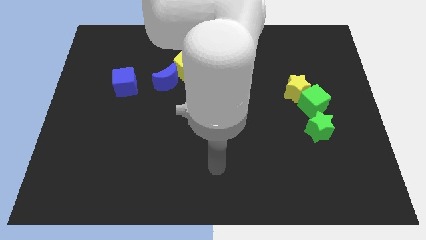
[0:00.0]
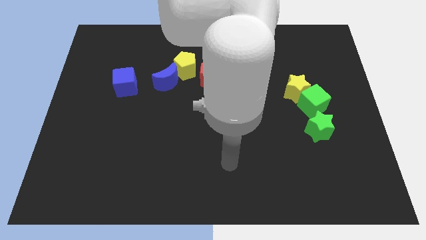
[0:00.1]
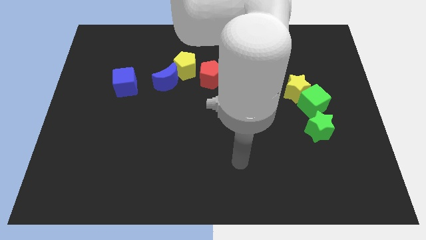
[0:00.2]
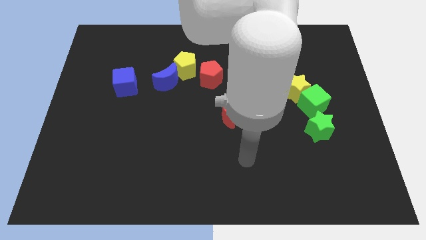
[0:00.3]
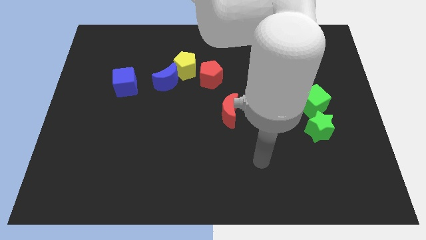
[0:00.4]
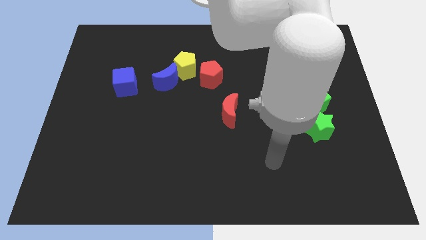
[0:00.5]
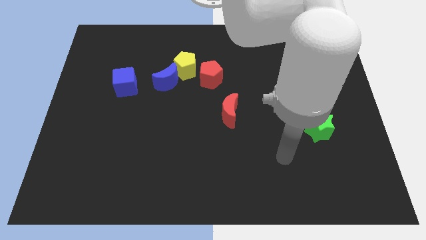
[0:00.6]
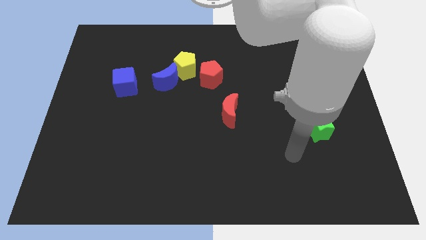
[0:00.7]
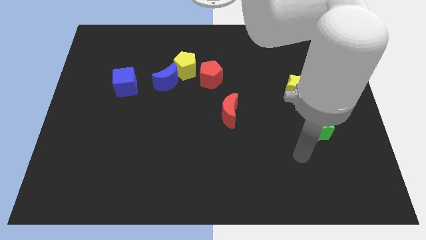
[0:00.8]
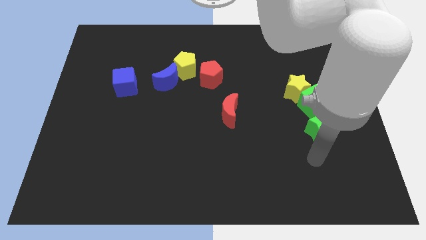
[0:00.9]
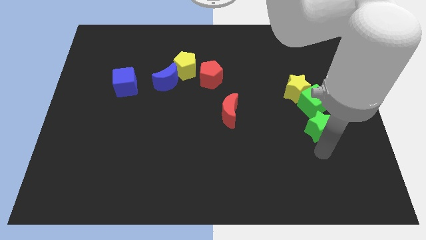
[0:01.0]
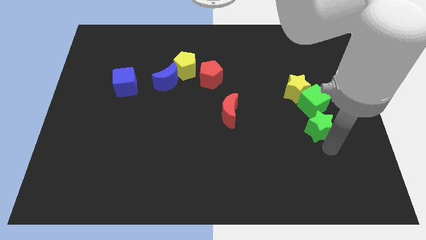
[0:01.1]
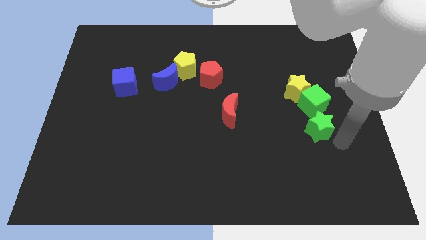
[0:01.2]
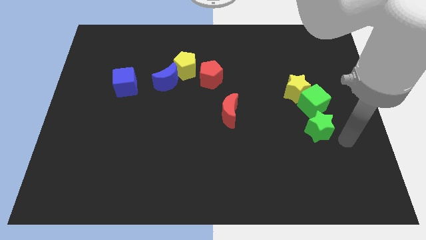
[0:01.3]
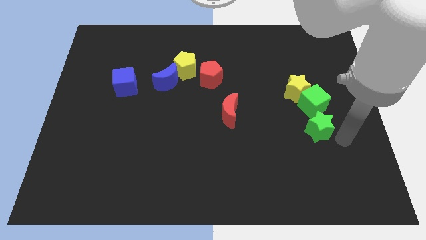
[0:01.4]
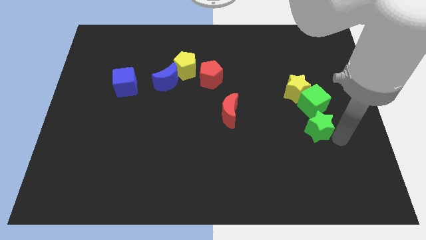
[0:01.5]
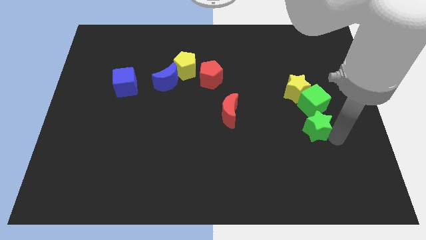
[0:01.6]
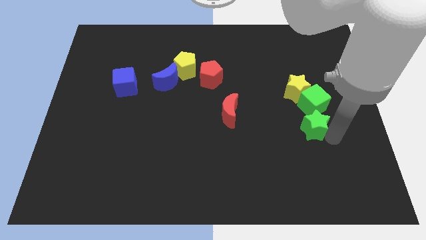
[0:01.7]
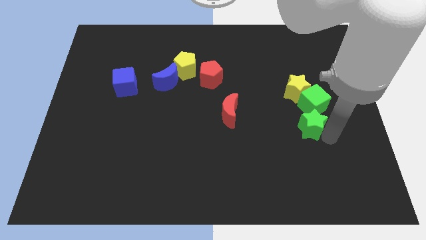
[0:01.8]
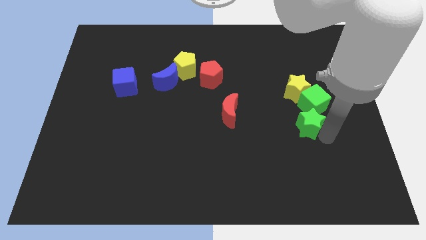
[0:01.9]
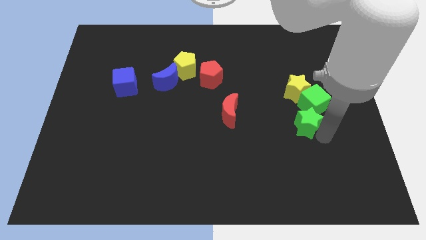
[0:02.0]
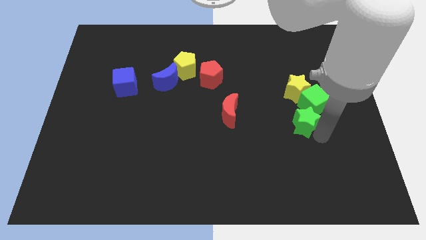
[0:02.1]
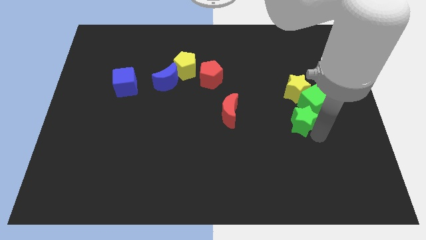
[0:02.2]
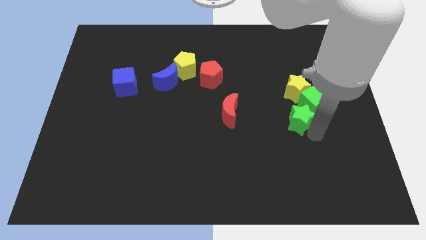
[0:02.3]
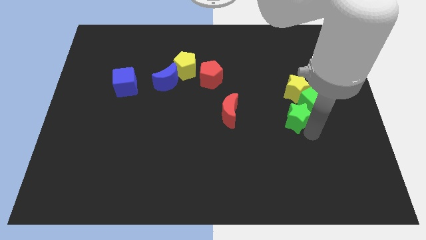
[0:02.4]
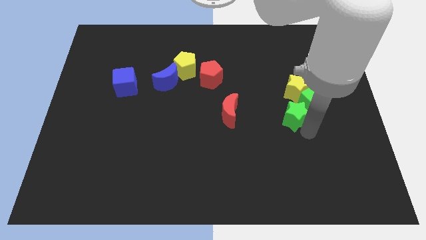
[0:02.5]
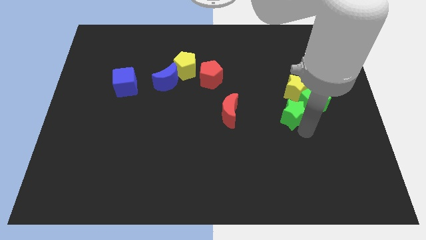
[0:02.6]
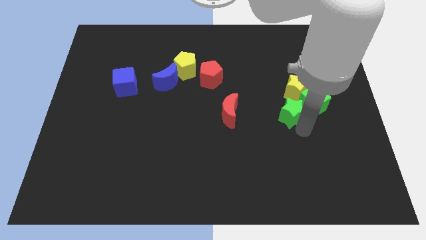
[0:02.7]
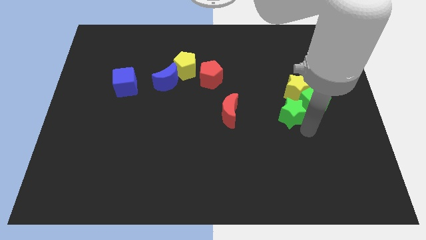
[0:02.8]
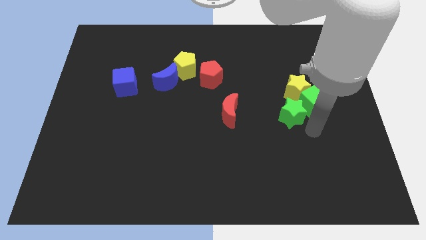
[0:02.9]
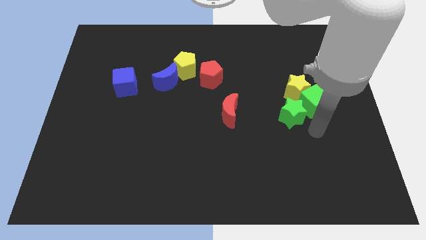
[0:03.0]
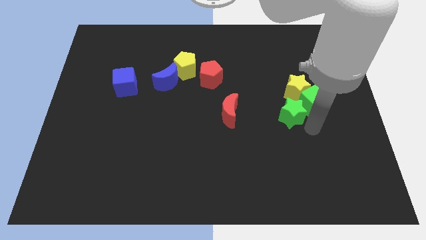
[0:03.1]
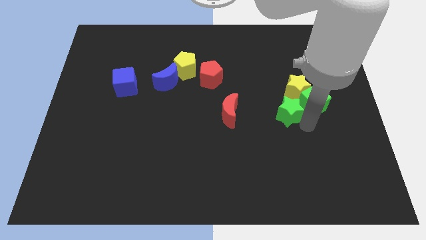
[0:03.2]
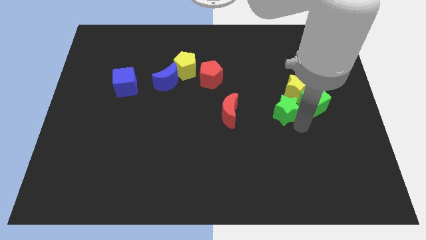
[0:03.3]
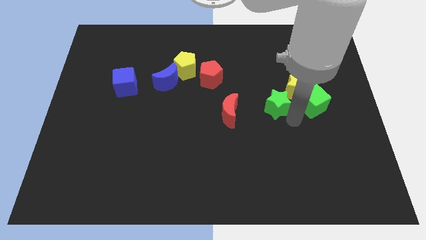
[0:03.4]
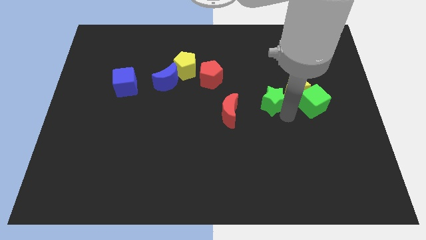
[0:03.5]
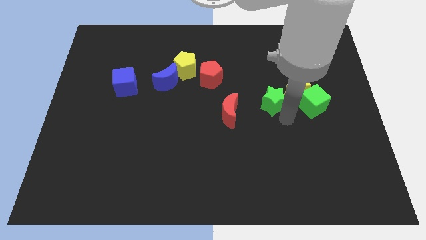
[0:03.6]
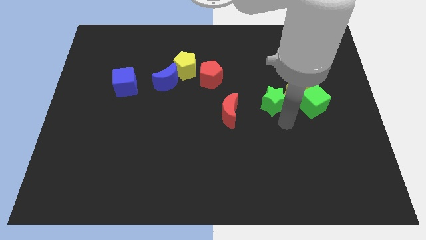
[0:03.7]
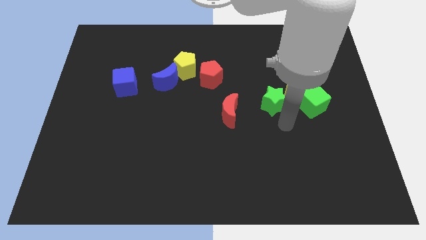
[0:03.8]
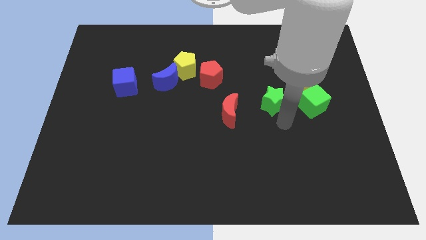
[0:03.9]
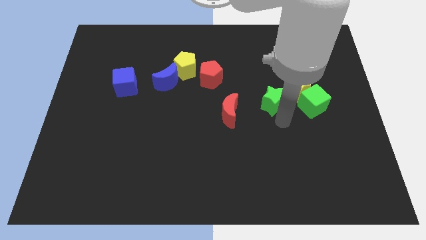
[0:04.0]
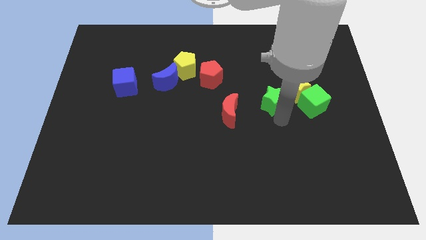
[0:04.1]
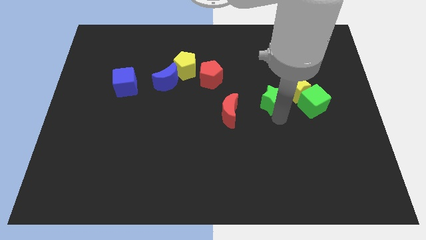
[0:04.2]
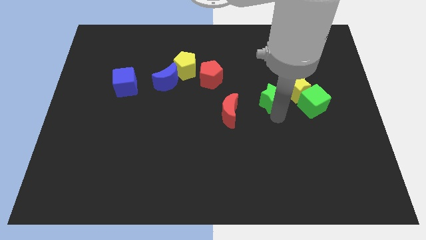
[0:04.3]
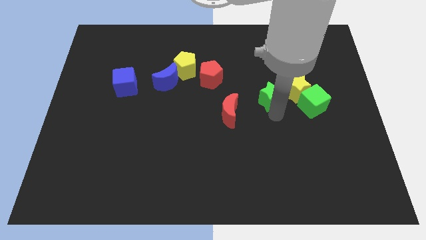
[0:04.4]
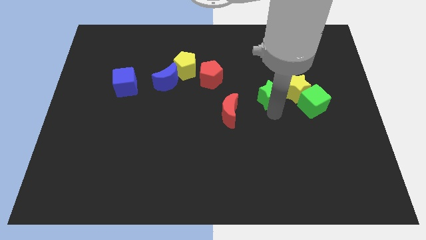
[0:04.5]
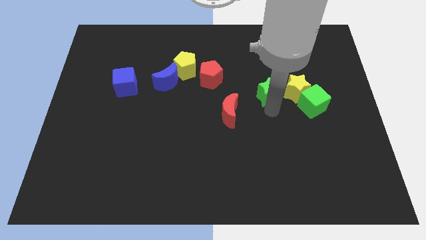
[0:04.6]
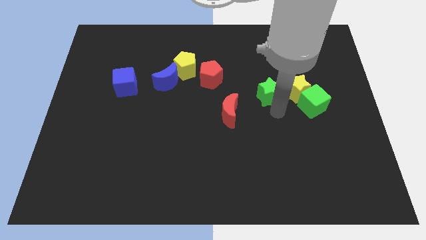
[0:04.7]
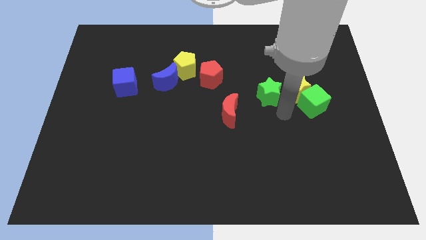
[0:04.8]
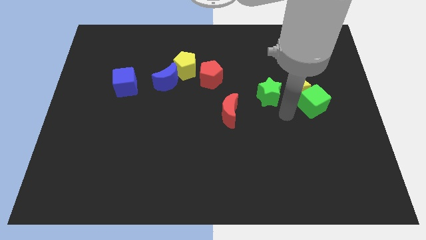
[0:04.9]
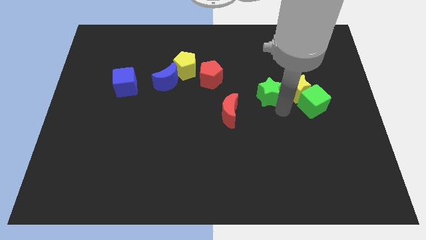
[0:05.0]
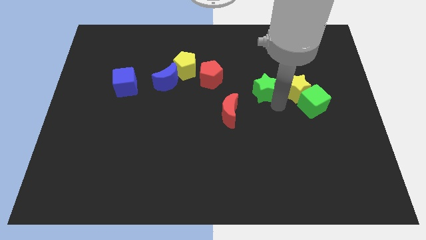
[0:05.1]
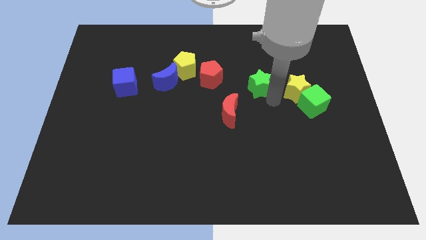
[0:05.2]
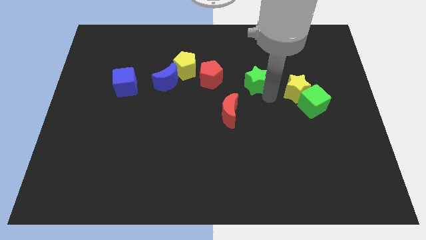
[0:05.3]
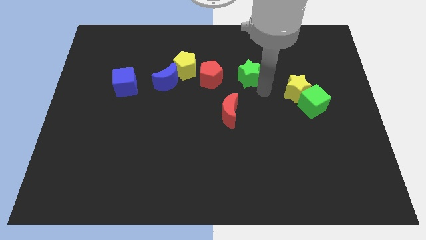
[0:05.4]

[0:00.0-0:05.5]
move the green star diagonally upwards and left

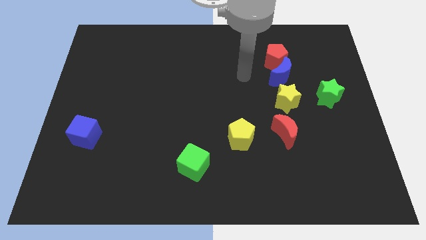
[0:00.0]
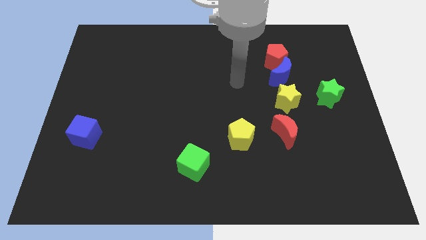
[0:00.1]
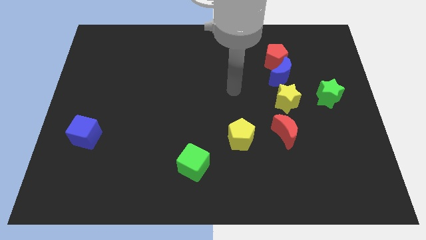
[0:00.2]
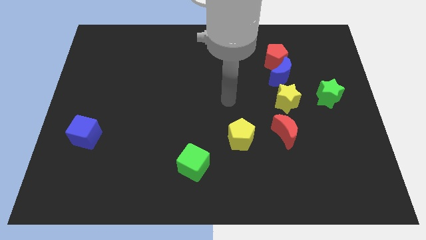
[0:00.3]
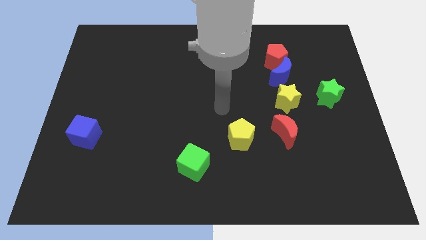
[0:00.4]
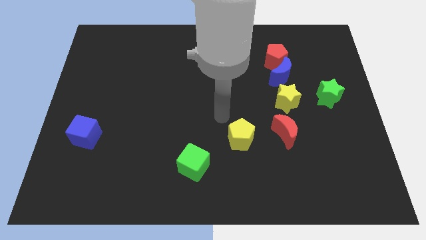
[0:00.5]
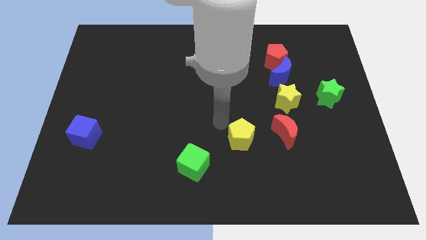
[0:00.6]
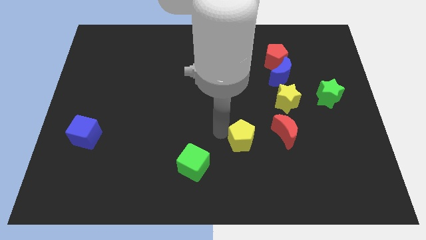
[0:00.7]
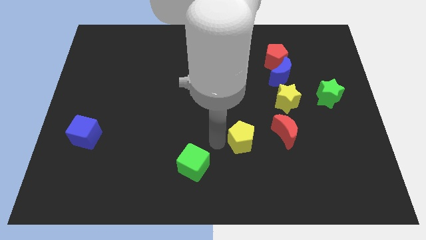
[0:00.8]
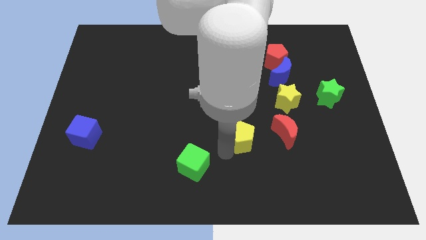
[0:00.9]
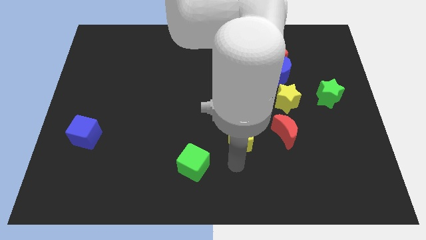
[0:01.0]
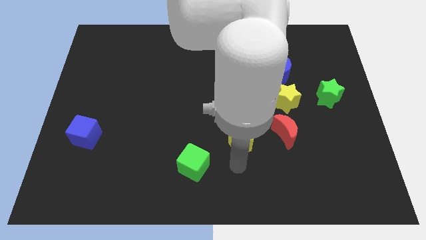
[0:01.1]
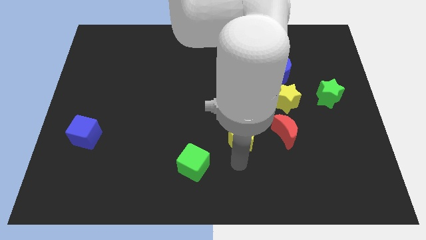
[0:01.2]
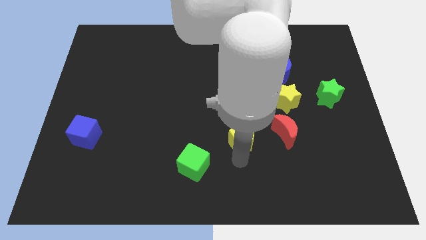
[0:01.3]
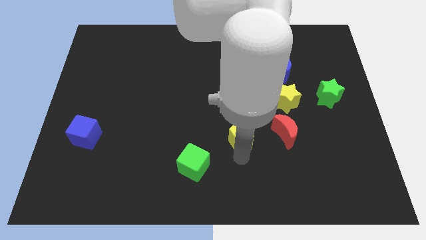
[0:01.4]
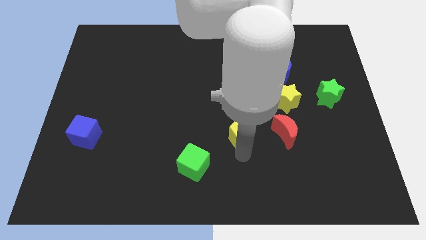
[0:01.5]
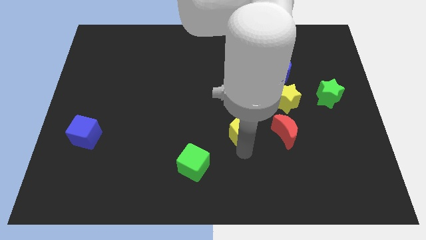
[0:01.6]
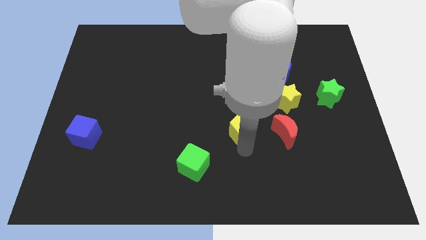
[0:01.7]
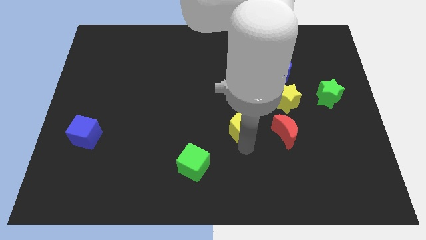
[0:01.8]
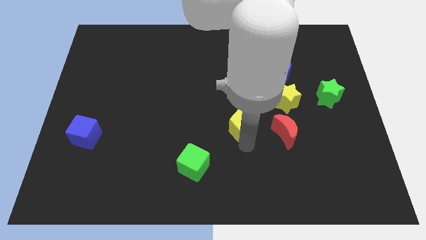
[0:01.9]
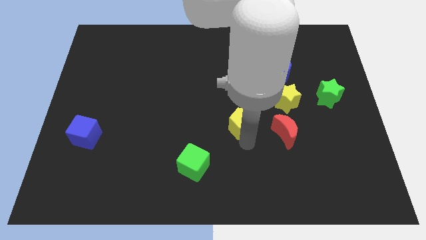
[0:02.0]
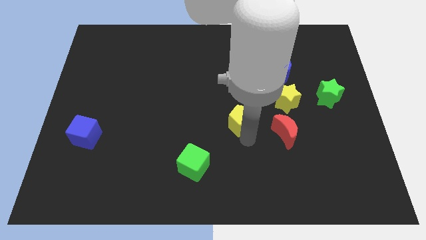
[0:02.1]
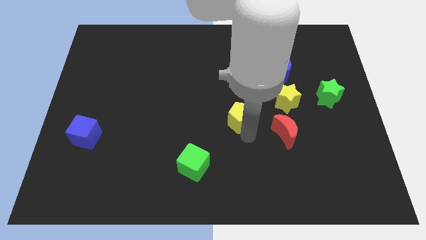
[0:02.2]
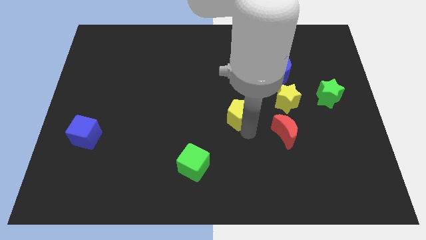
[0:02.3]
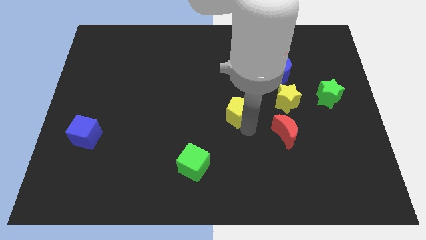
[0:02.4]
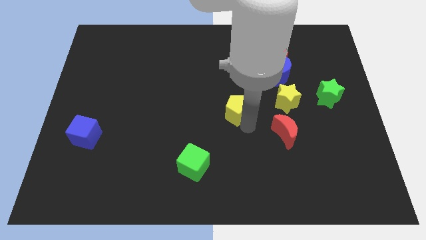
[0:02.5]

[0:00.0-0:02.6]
push the yellow pentagon a bit upwards

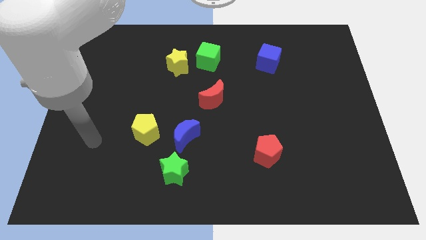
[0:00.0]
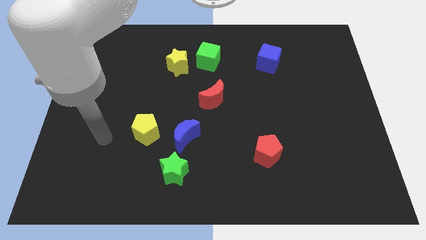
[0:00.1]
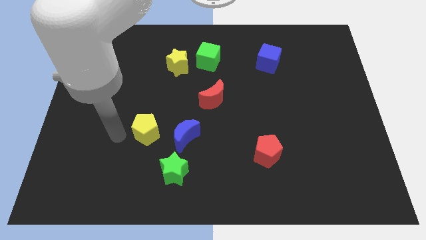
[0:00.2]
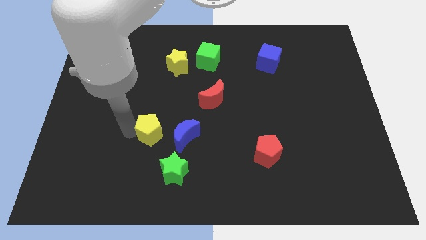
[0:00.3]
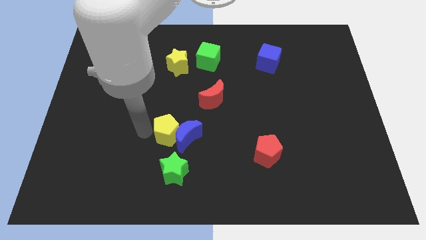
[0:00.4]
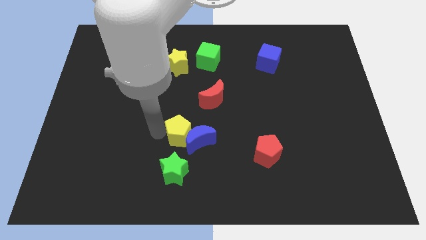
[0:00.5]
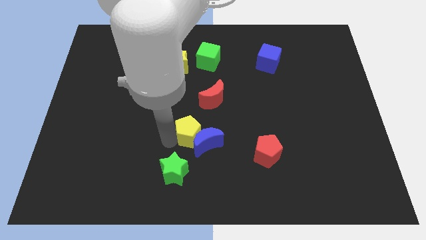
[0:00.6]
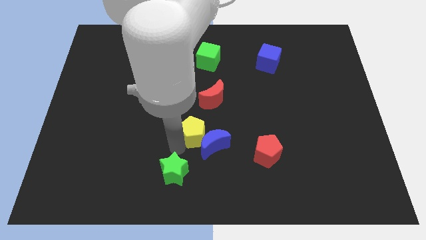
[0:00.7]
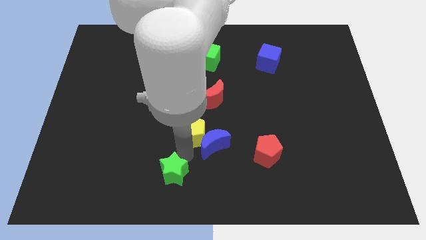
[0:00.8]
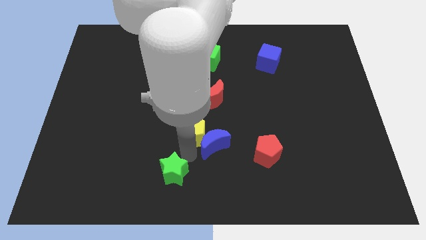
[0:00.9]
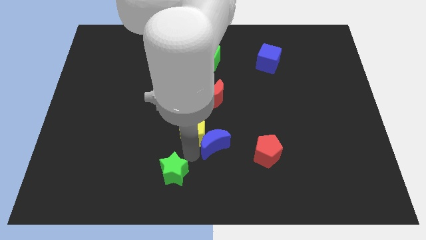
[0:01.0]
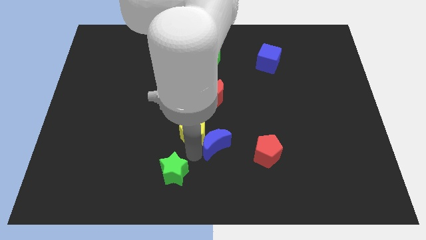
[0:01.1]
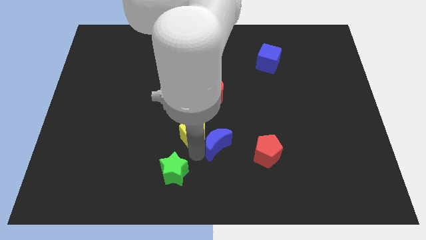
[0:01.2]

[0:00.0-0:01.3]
push the blue moon somewhat right
